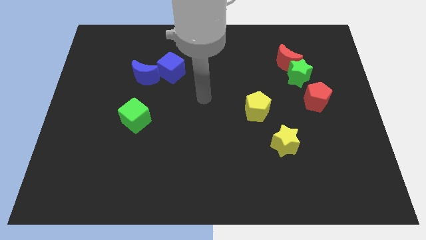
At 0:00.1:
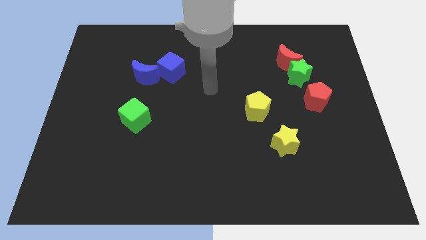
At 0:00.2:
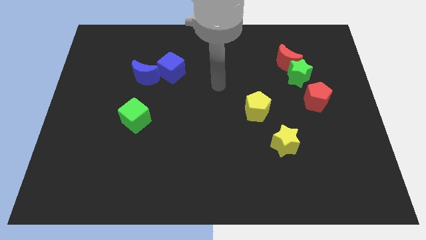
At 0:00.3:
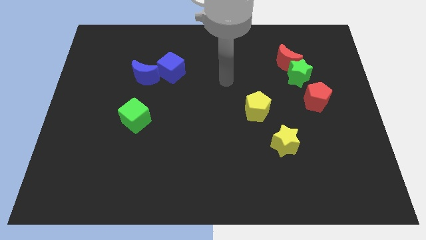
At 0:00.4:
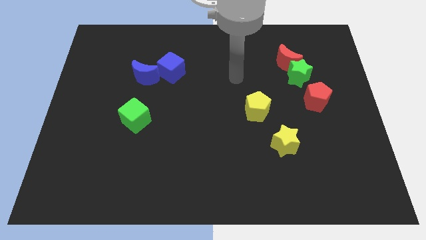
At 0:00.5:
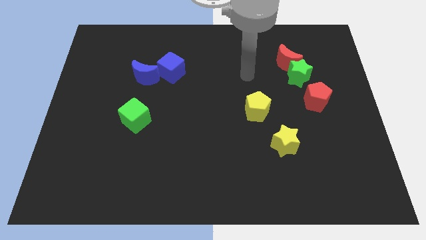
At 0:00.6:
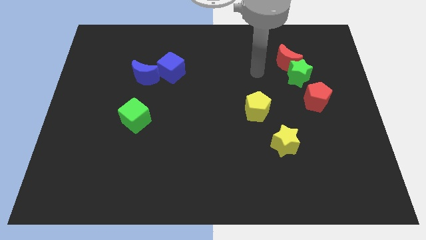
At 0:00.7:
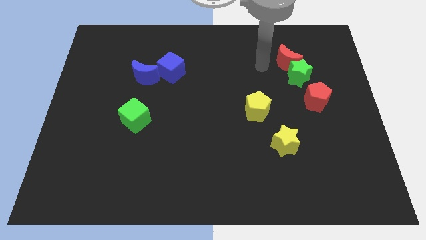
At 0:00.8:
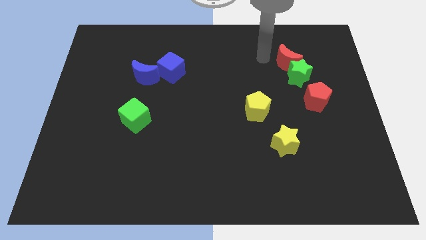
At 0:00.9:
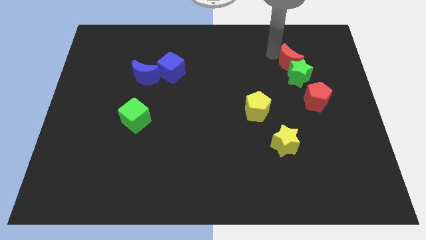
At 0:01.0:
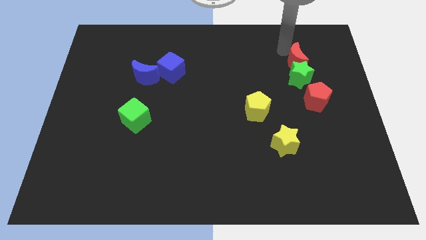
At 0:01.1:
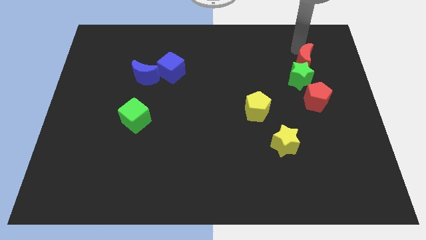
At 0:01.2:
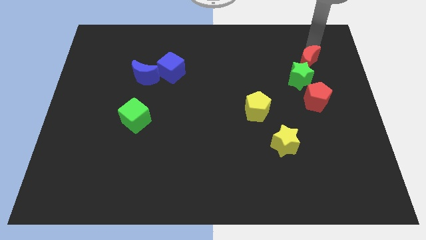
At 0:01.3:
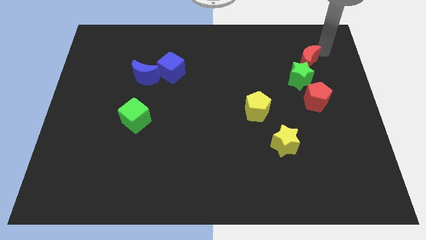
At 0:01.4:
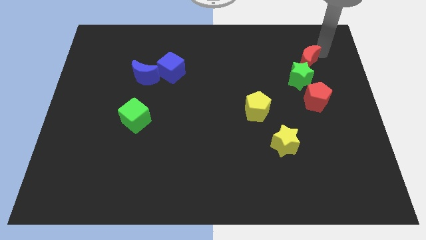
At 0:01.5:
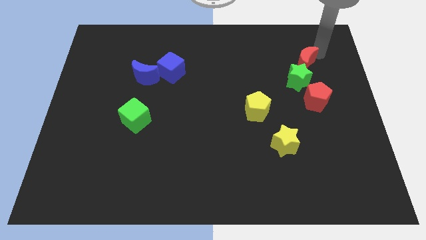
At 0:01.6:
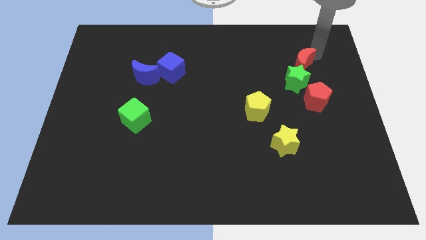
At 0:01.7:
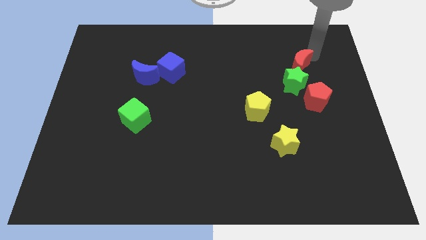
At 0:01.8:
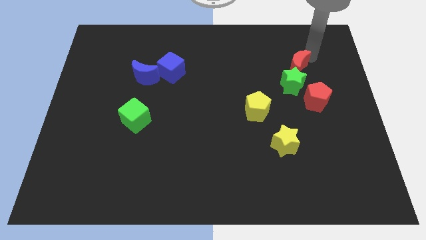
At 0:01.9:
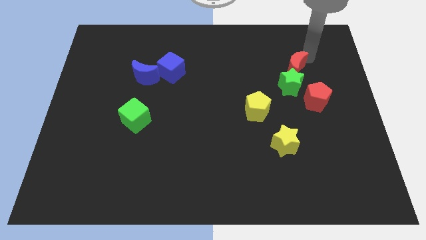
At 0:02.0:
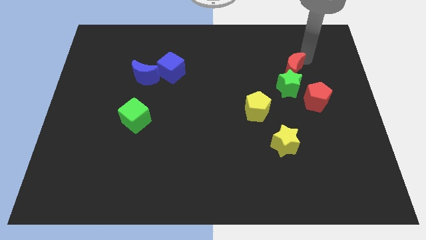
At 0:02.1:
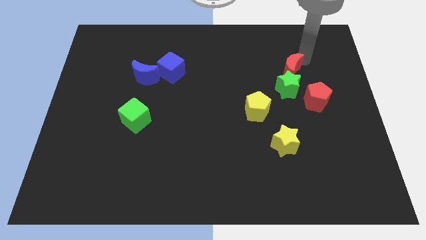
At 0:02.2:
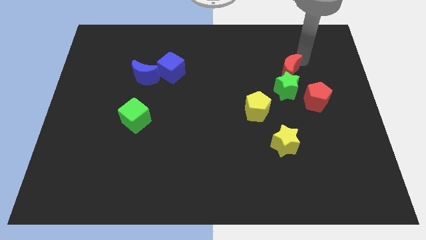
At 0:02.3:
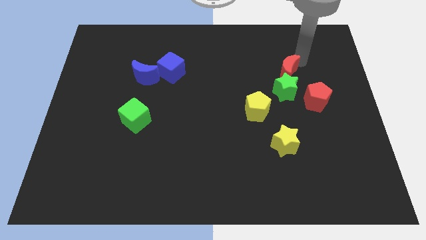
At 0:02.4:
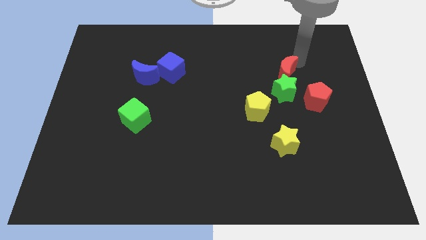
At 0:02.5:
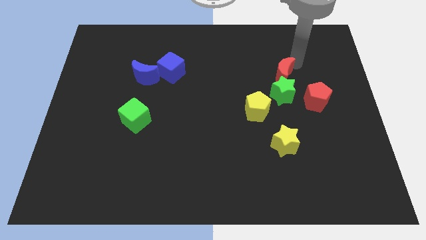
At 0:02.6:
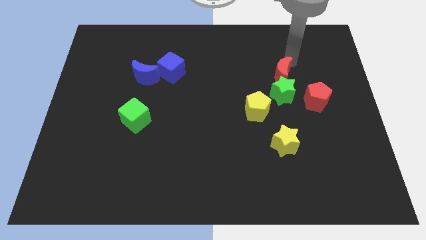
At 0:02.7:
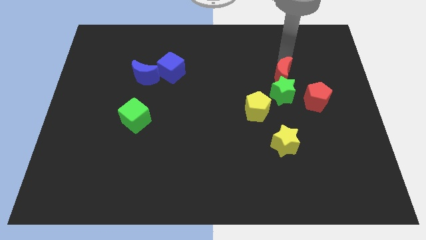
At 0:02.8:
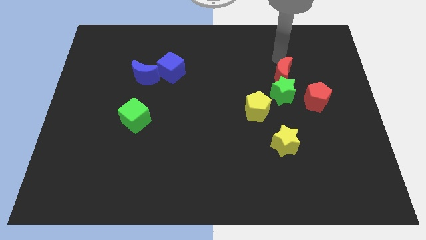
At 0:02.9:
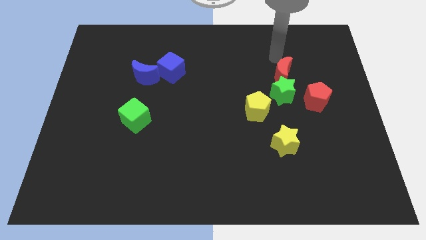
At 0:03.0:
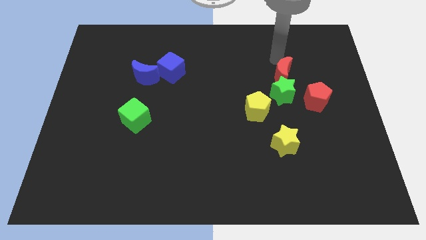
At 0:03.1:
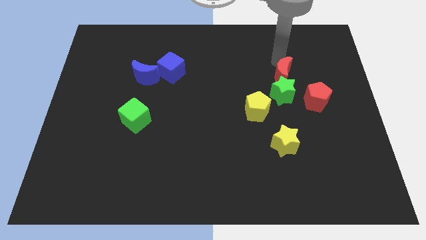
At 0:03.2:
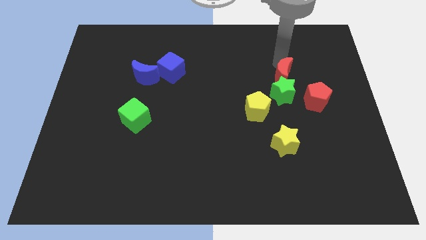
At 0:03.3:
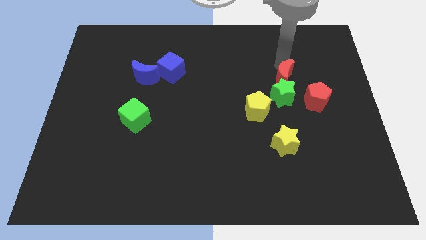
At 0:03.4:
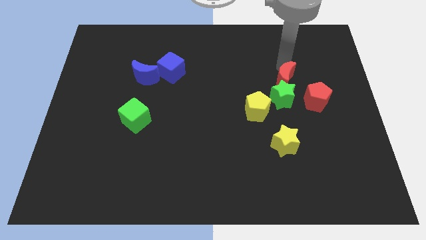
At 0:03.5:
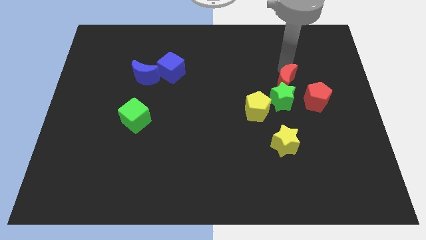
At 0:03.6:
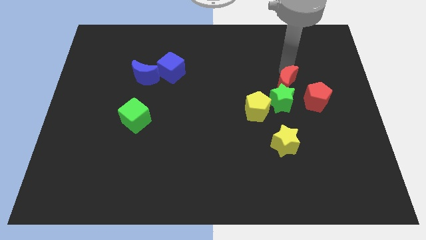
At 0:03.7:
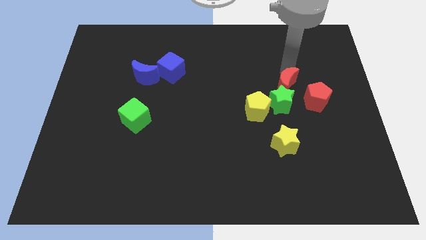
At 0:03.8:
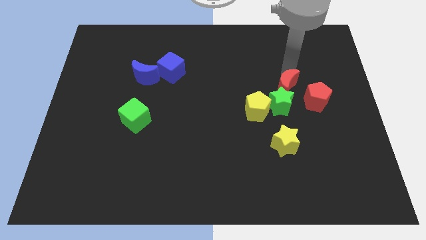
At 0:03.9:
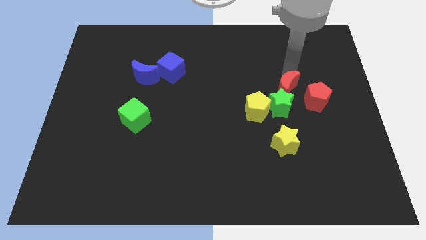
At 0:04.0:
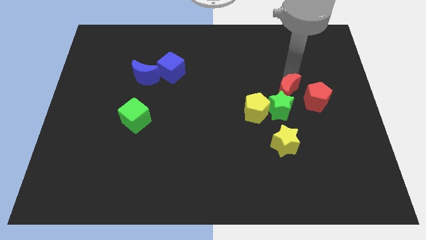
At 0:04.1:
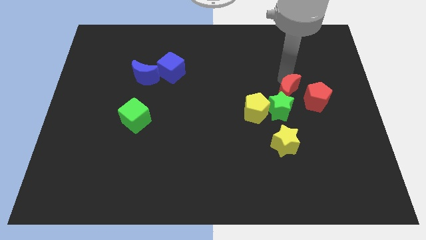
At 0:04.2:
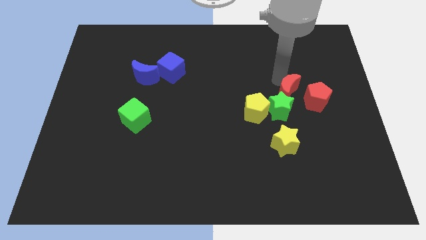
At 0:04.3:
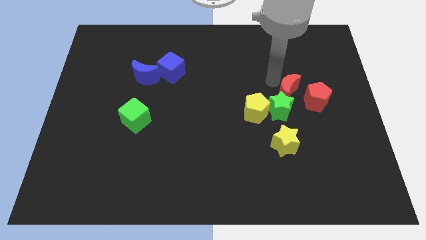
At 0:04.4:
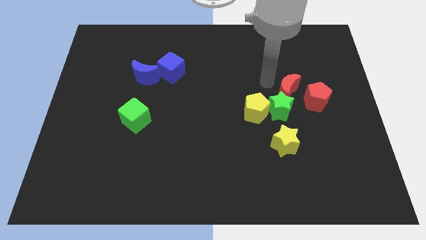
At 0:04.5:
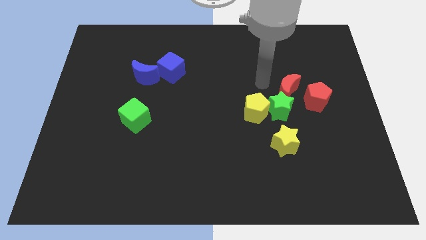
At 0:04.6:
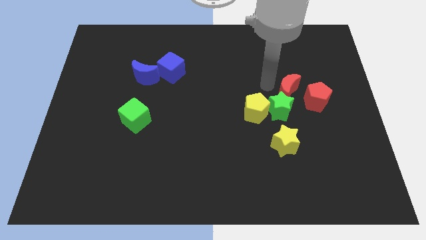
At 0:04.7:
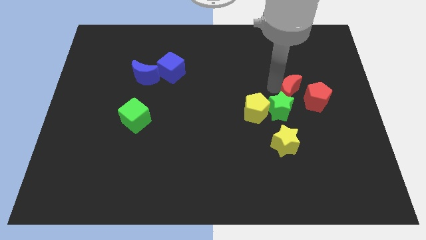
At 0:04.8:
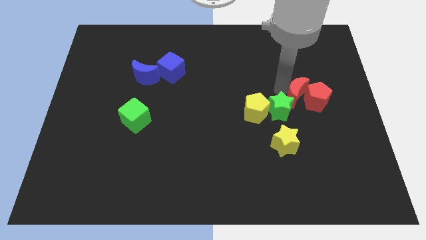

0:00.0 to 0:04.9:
put the red moon next to the red pentagon

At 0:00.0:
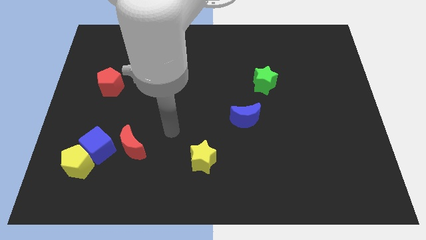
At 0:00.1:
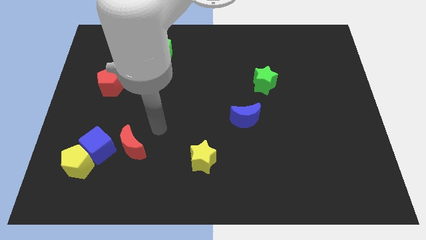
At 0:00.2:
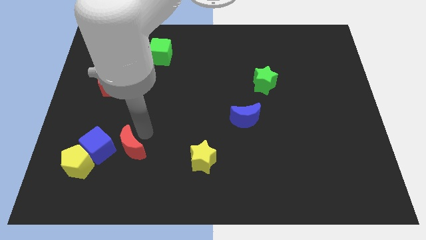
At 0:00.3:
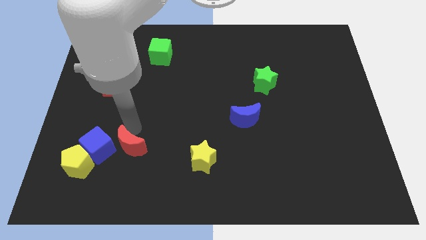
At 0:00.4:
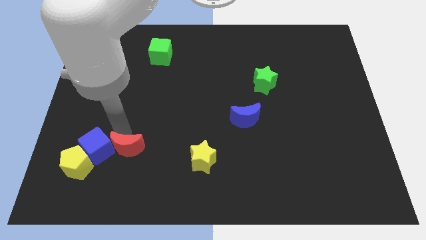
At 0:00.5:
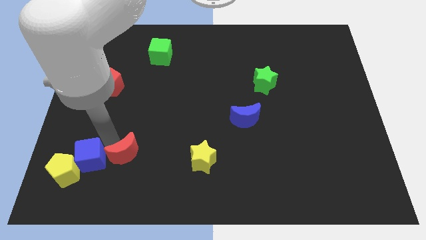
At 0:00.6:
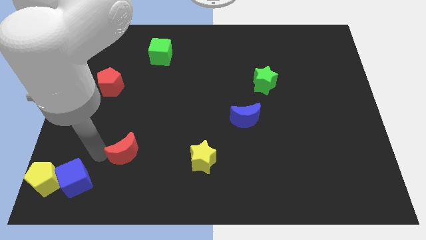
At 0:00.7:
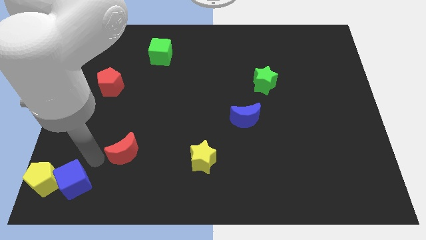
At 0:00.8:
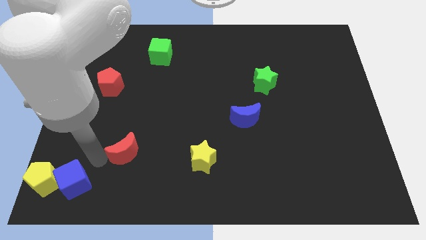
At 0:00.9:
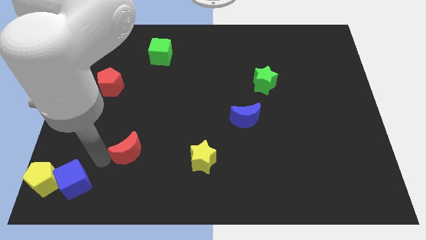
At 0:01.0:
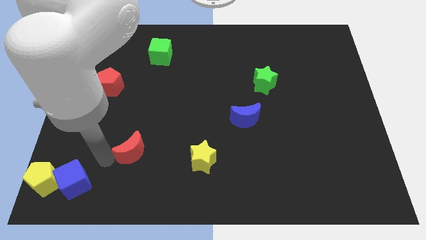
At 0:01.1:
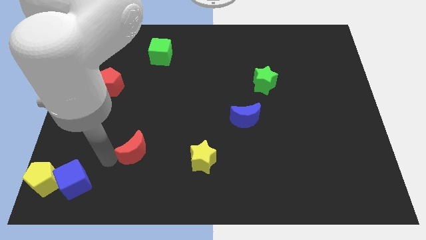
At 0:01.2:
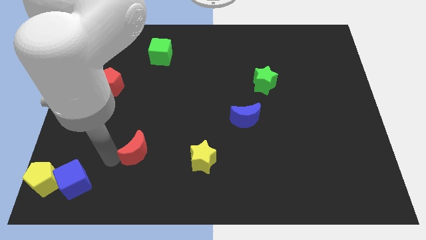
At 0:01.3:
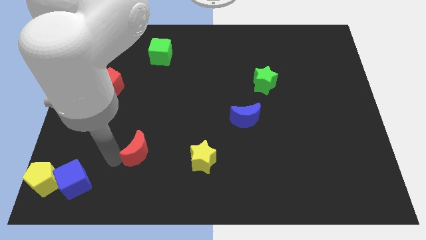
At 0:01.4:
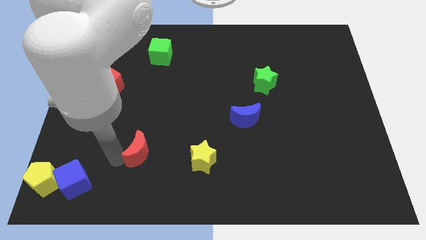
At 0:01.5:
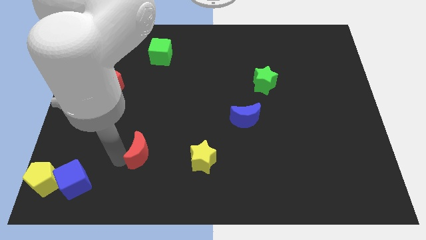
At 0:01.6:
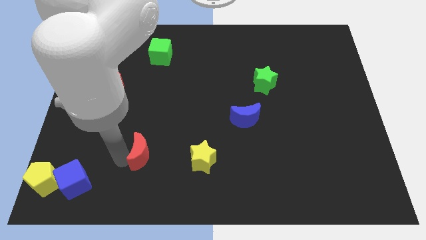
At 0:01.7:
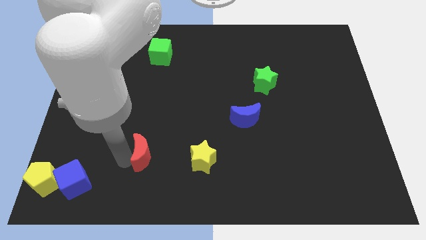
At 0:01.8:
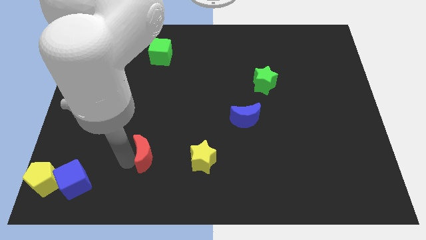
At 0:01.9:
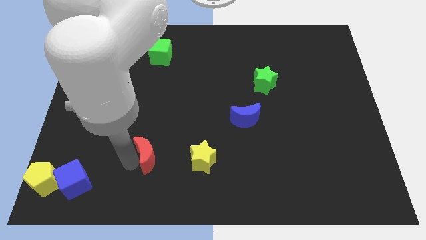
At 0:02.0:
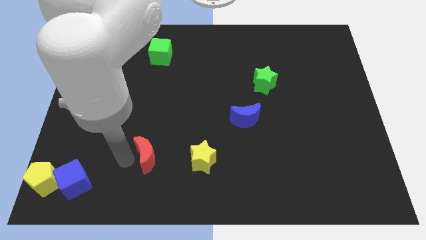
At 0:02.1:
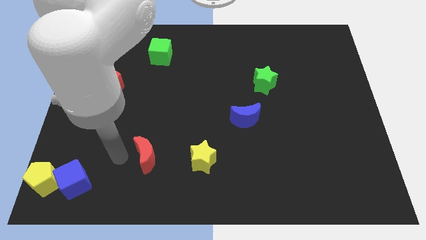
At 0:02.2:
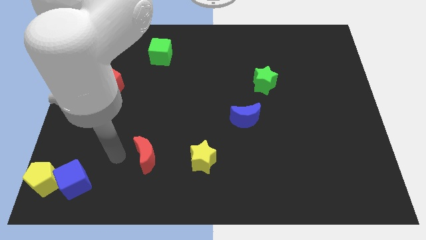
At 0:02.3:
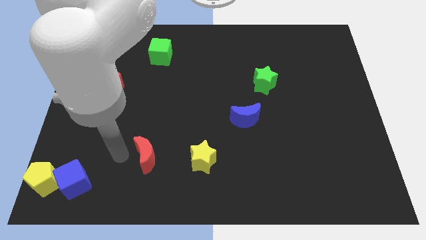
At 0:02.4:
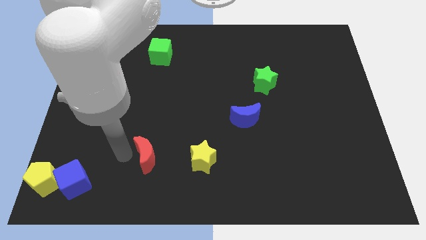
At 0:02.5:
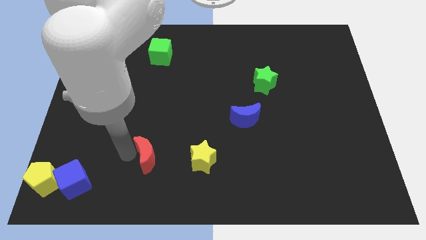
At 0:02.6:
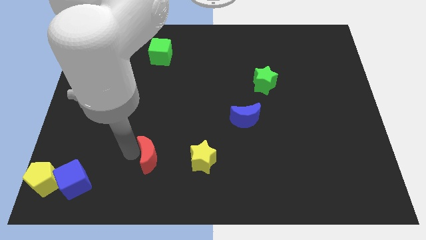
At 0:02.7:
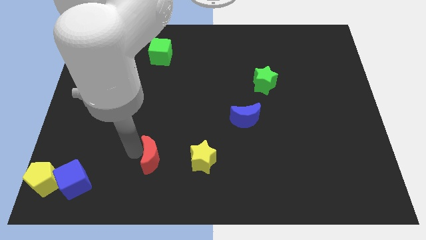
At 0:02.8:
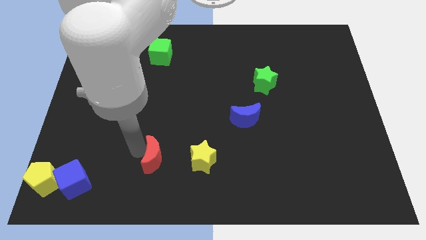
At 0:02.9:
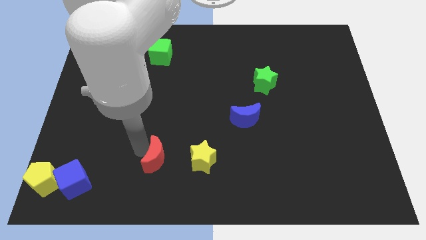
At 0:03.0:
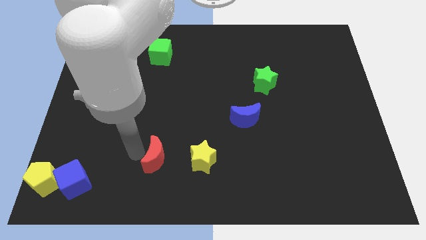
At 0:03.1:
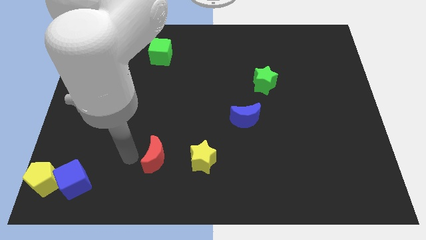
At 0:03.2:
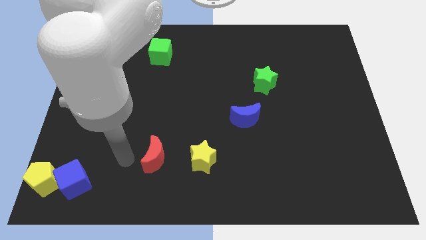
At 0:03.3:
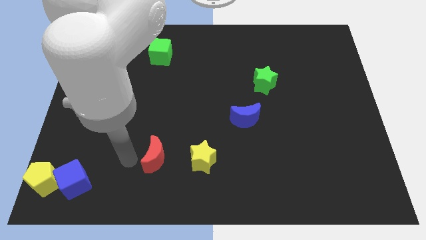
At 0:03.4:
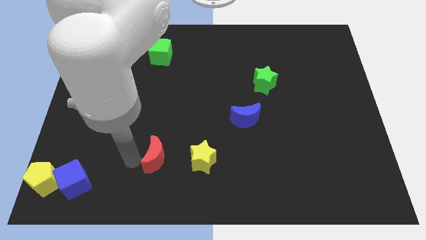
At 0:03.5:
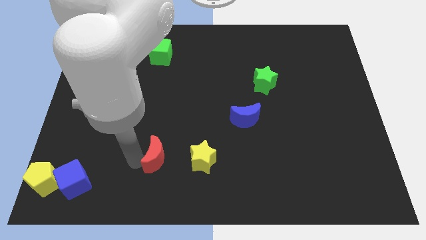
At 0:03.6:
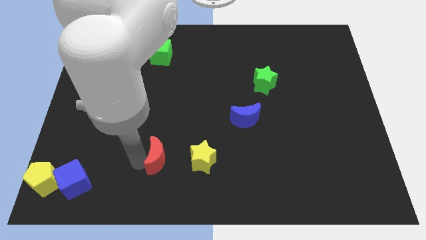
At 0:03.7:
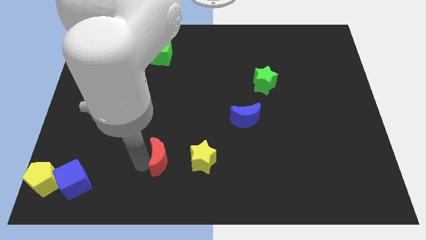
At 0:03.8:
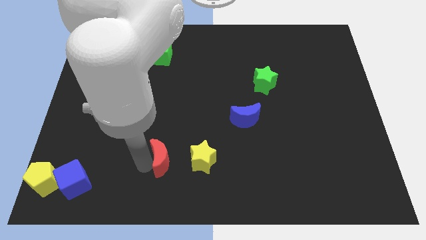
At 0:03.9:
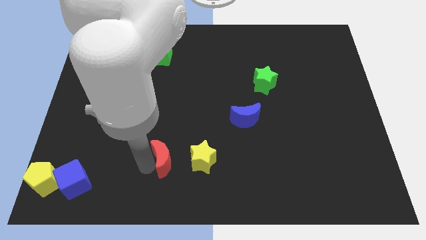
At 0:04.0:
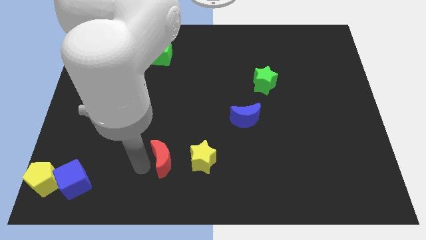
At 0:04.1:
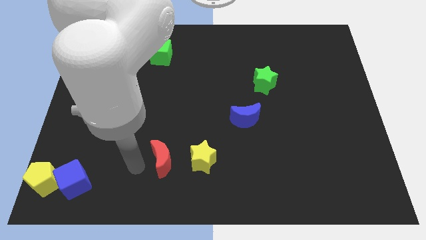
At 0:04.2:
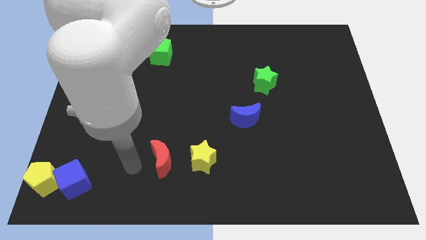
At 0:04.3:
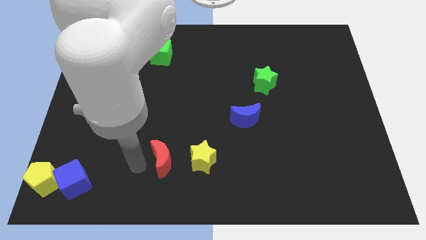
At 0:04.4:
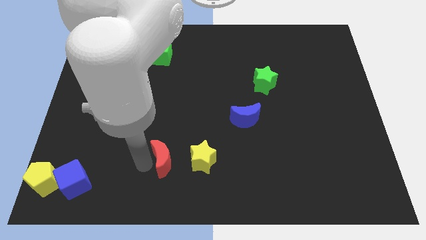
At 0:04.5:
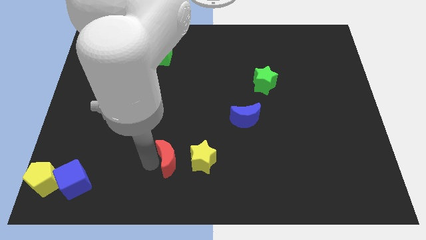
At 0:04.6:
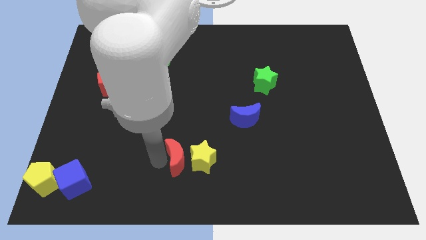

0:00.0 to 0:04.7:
slide the red moon towards the yellow star
